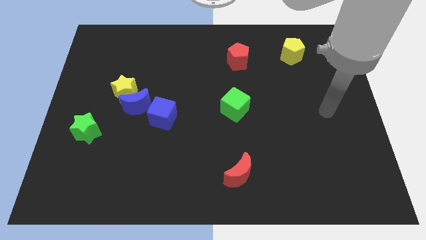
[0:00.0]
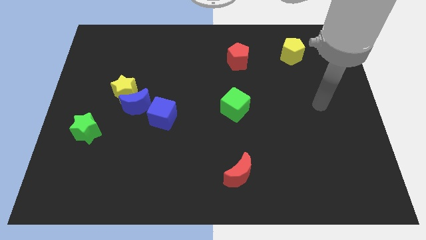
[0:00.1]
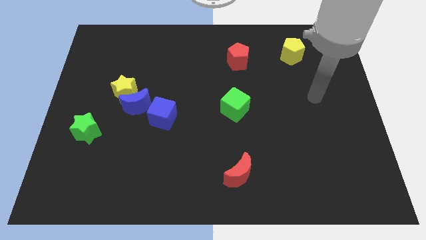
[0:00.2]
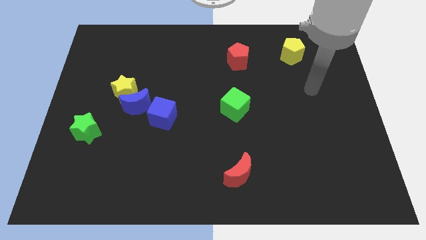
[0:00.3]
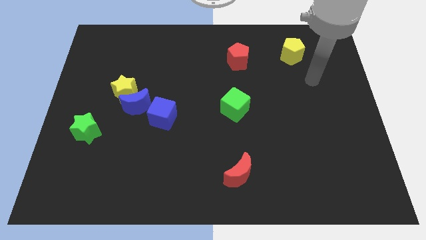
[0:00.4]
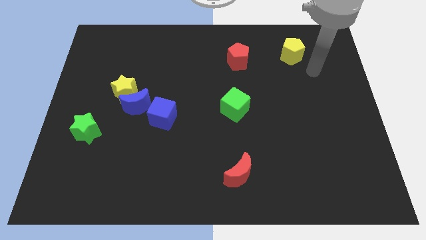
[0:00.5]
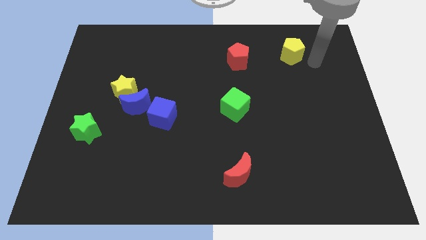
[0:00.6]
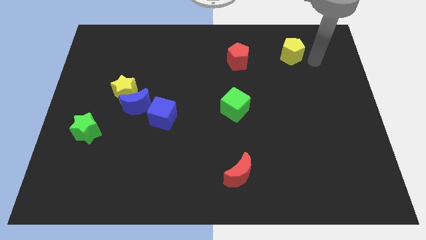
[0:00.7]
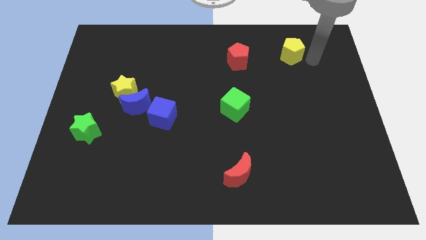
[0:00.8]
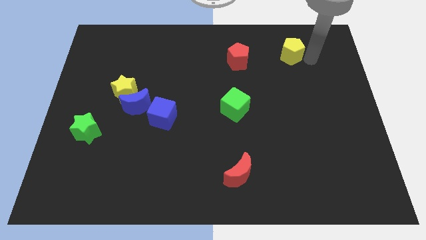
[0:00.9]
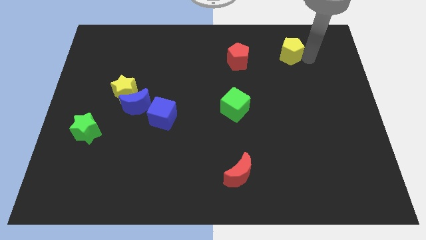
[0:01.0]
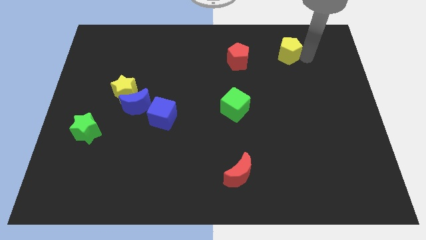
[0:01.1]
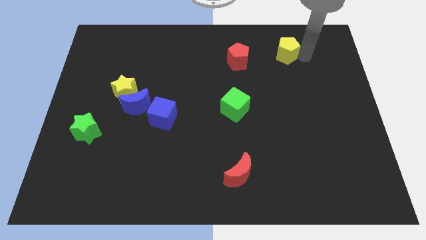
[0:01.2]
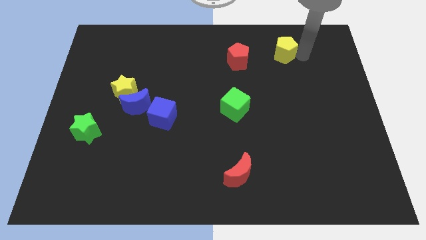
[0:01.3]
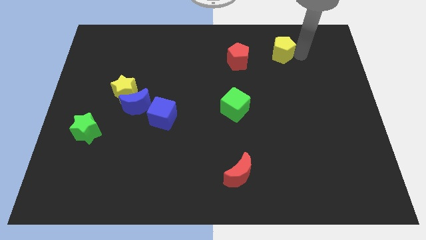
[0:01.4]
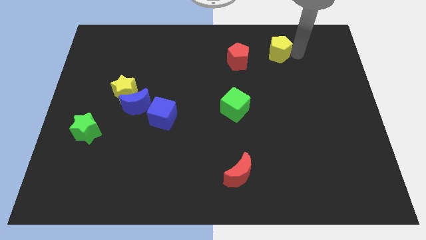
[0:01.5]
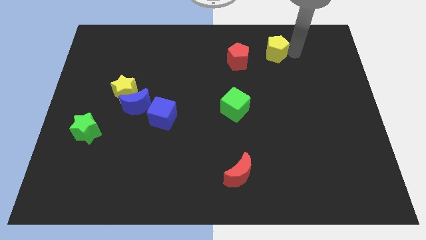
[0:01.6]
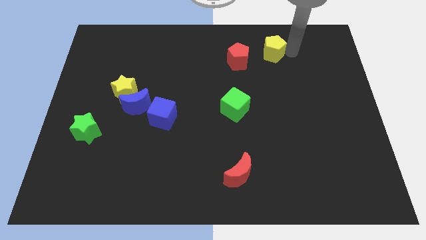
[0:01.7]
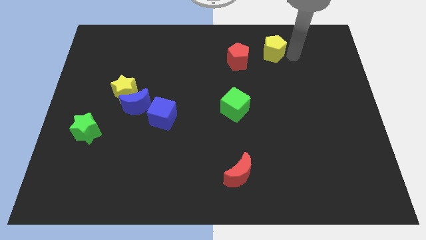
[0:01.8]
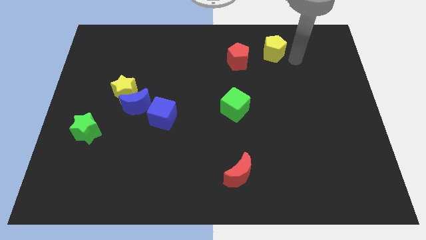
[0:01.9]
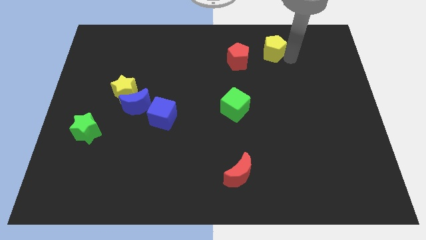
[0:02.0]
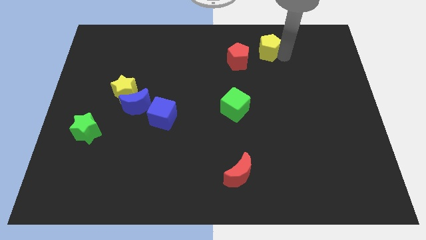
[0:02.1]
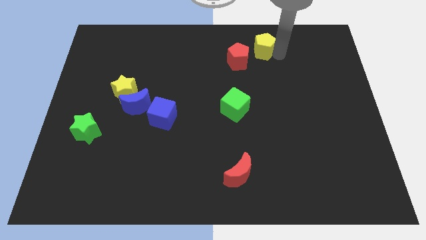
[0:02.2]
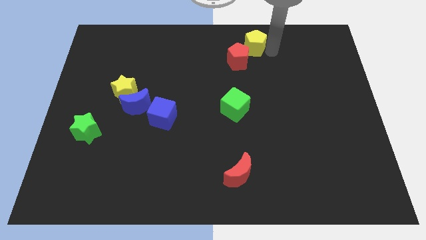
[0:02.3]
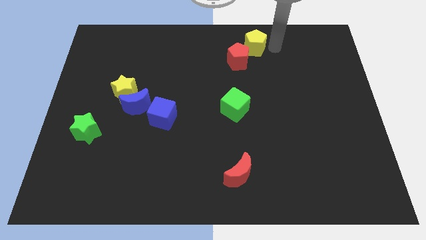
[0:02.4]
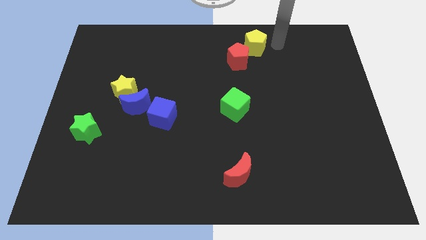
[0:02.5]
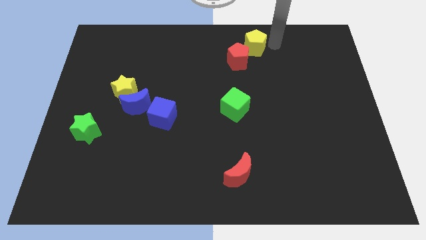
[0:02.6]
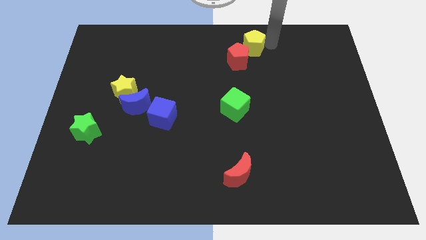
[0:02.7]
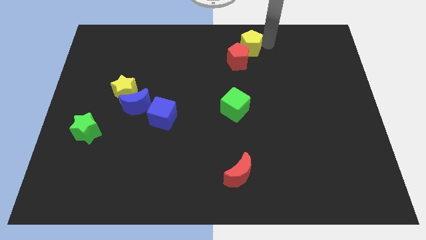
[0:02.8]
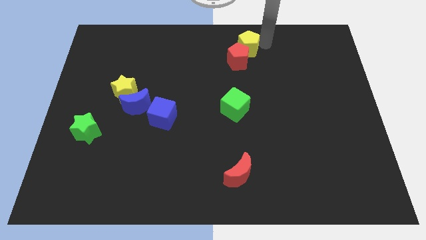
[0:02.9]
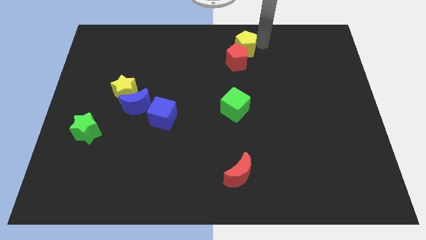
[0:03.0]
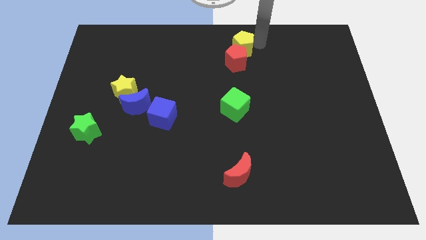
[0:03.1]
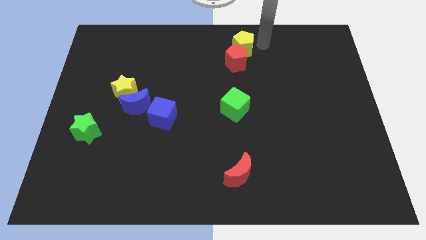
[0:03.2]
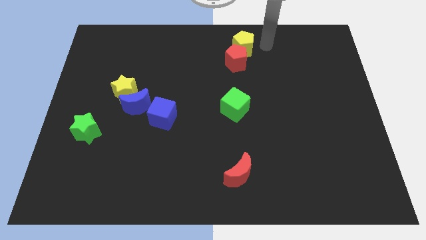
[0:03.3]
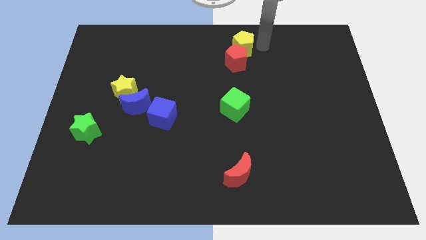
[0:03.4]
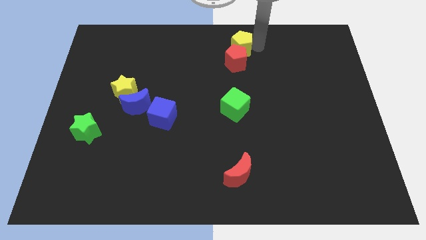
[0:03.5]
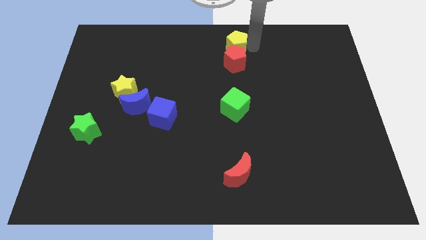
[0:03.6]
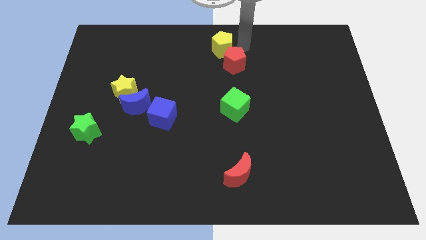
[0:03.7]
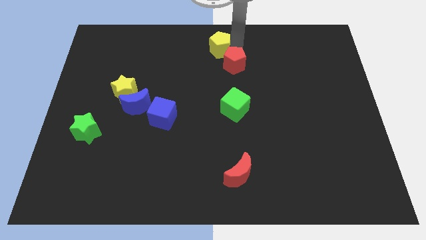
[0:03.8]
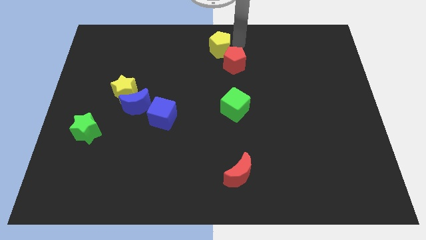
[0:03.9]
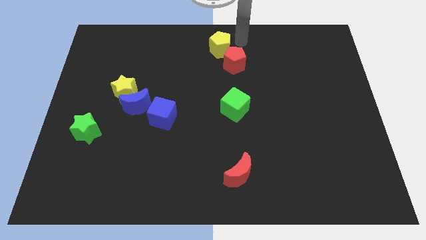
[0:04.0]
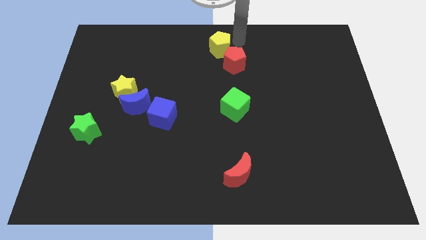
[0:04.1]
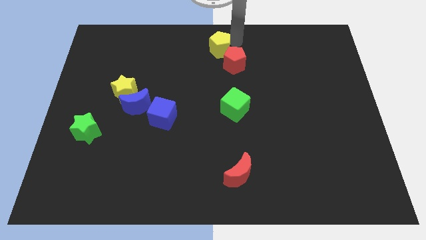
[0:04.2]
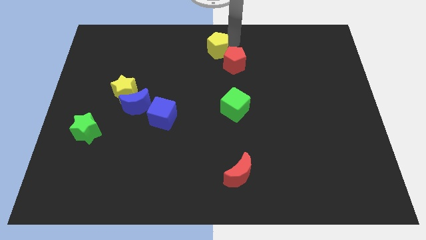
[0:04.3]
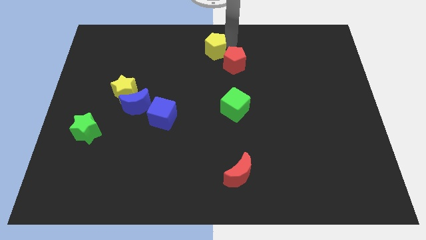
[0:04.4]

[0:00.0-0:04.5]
slide the yellow pentagon left

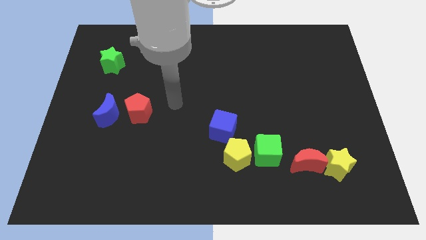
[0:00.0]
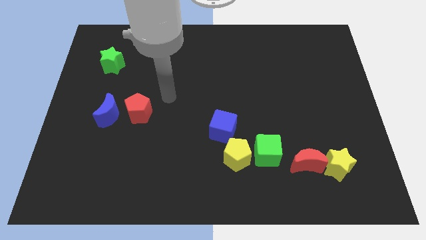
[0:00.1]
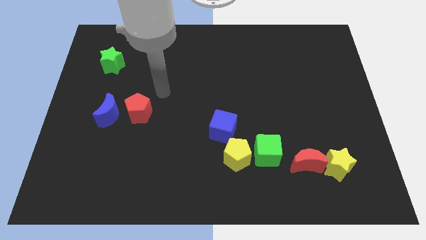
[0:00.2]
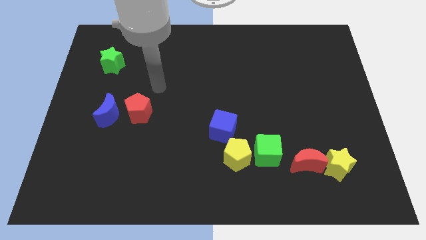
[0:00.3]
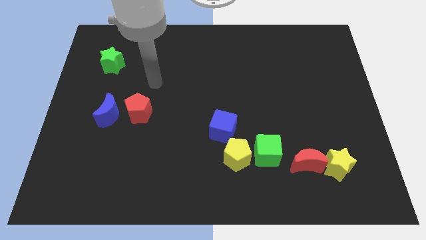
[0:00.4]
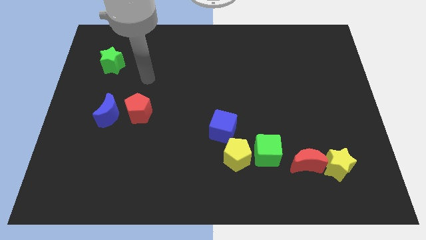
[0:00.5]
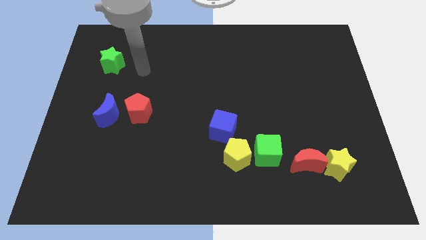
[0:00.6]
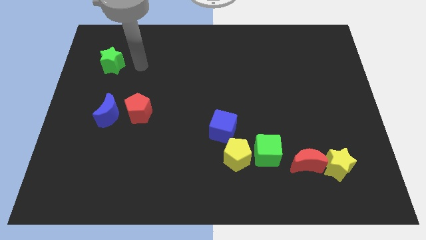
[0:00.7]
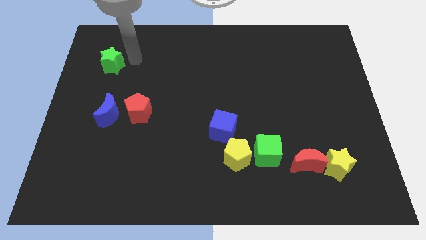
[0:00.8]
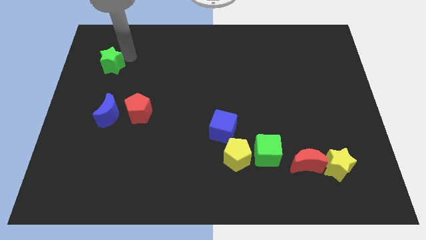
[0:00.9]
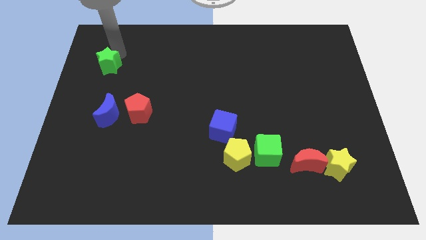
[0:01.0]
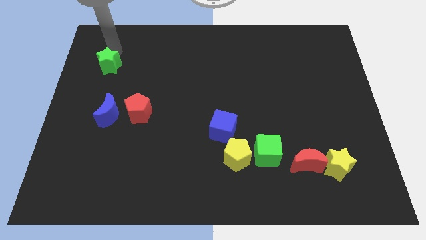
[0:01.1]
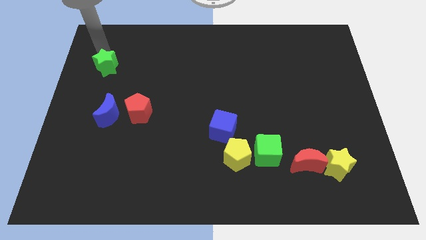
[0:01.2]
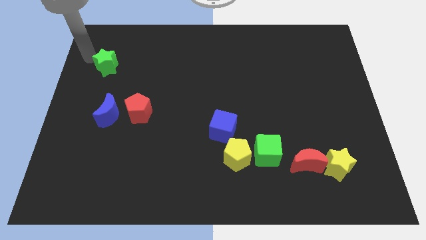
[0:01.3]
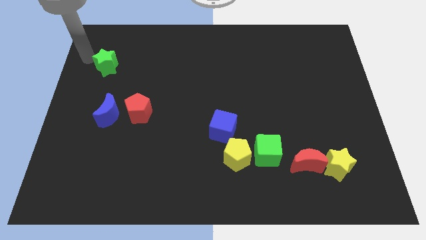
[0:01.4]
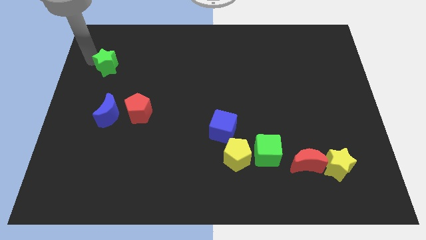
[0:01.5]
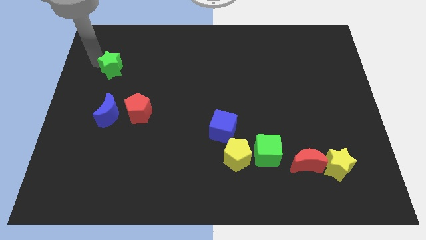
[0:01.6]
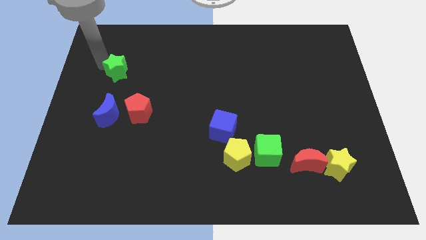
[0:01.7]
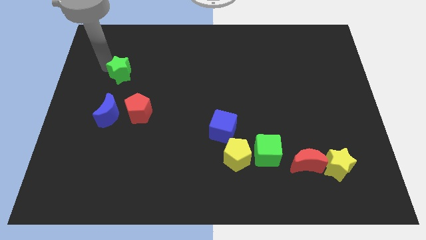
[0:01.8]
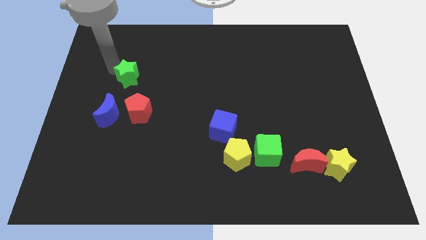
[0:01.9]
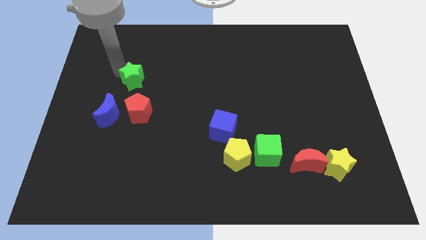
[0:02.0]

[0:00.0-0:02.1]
slightly slide the green star down and then right

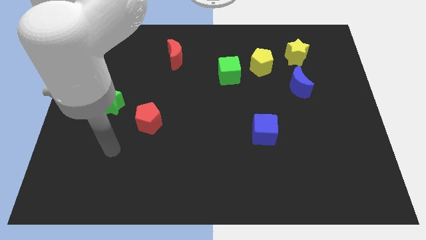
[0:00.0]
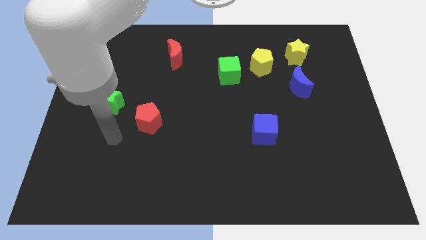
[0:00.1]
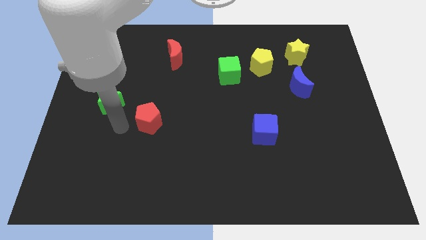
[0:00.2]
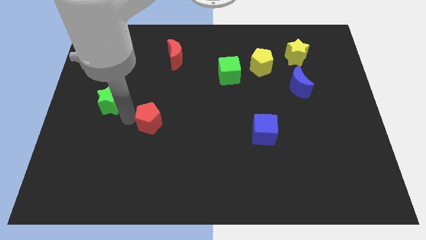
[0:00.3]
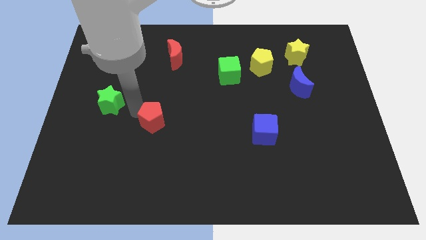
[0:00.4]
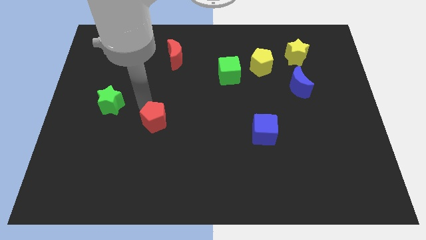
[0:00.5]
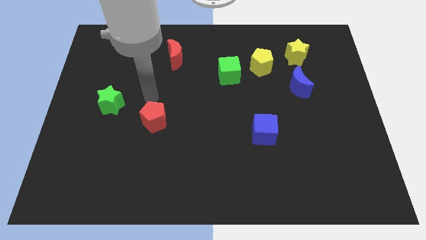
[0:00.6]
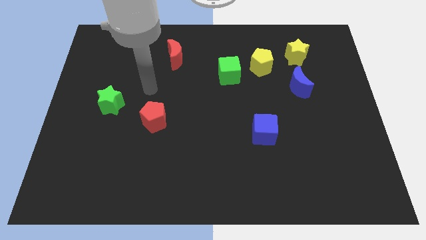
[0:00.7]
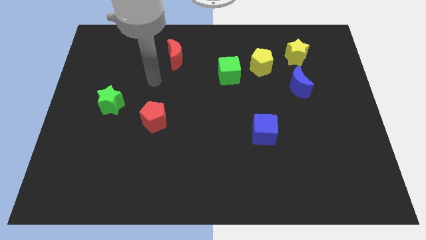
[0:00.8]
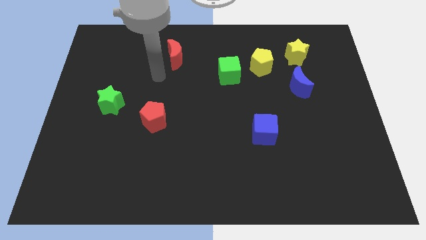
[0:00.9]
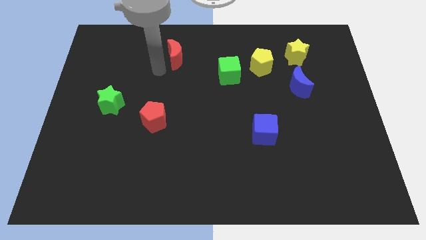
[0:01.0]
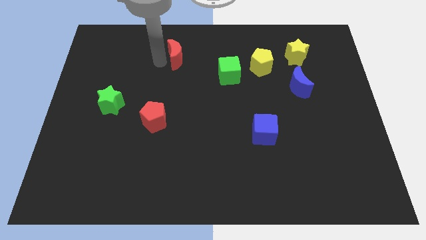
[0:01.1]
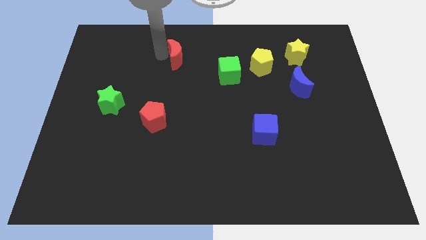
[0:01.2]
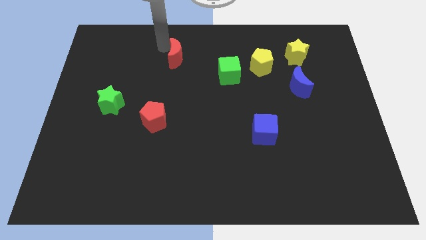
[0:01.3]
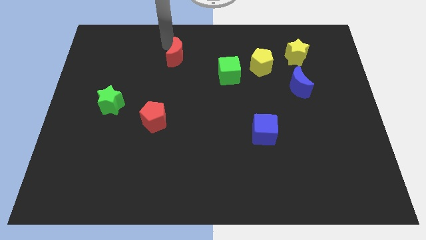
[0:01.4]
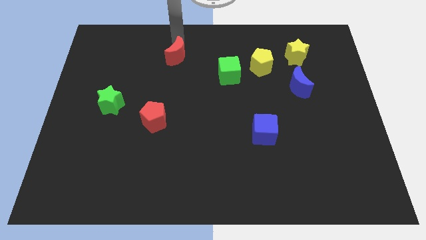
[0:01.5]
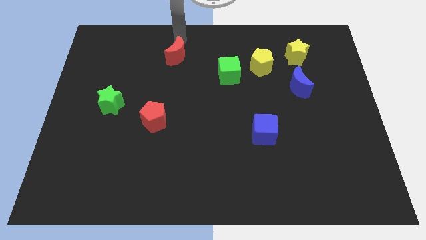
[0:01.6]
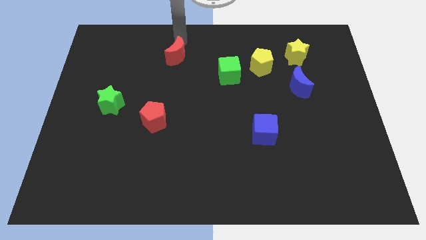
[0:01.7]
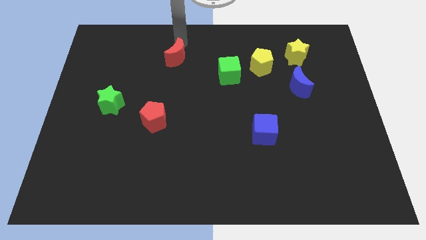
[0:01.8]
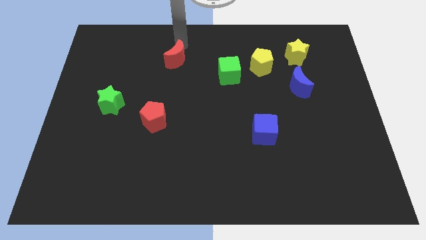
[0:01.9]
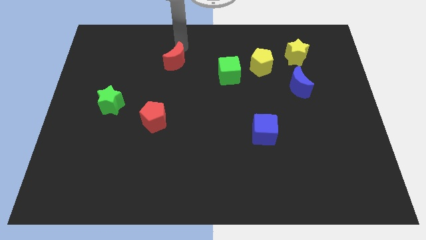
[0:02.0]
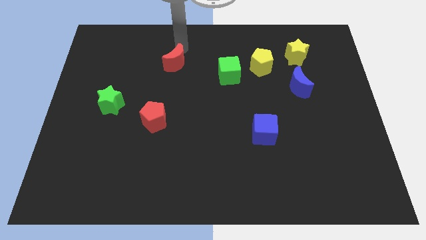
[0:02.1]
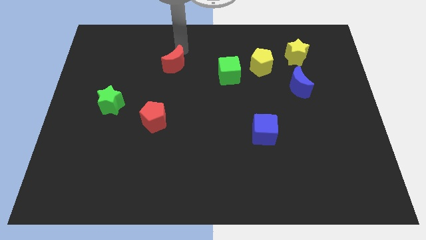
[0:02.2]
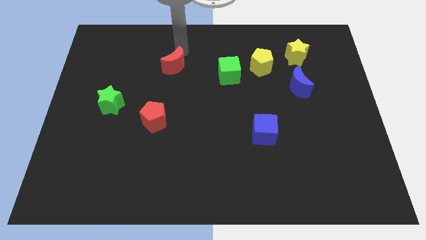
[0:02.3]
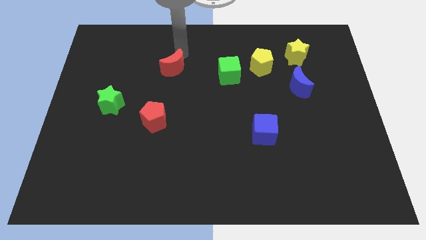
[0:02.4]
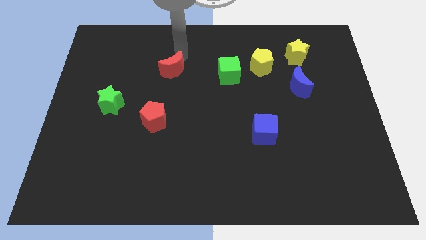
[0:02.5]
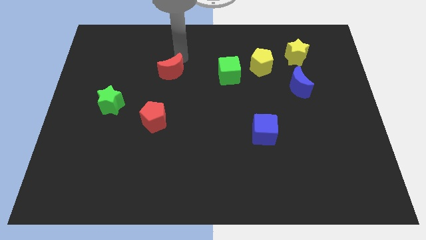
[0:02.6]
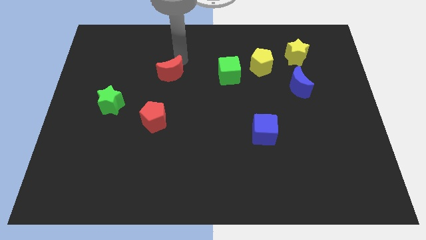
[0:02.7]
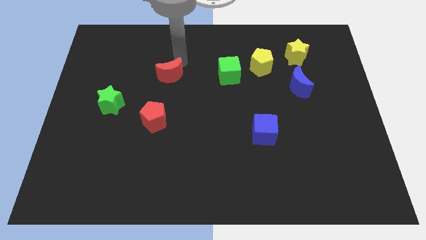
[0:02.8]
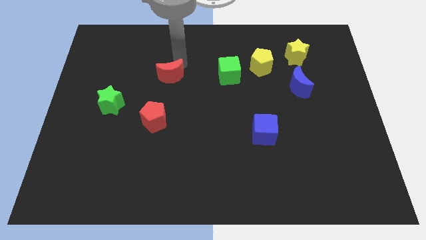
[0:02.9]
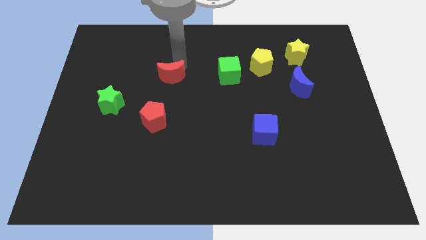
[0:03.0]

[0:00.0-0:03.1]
slide the red moon a little downwards
